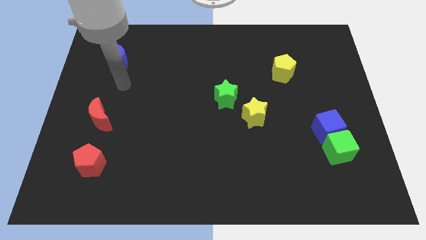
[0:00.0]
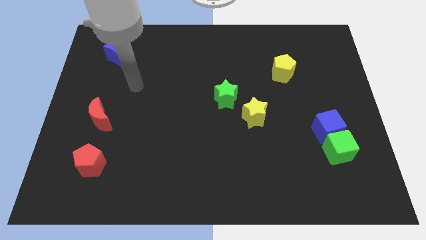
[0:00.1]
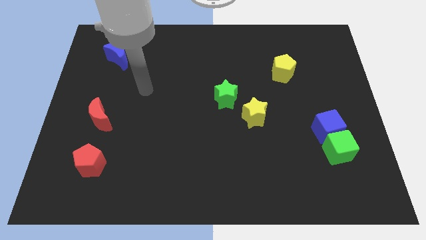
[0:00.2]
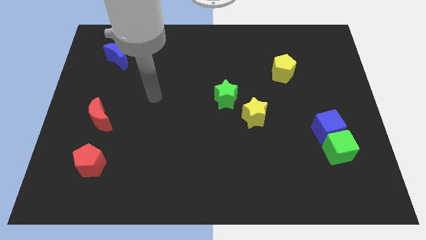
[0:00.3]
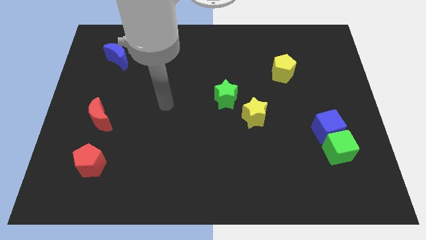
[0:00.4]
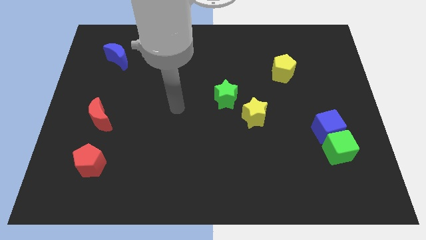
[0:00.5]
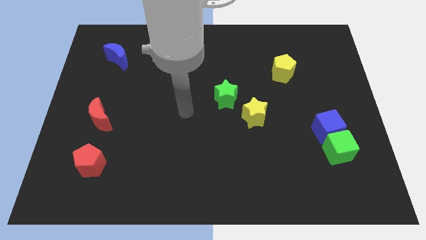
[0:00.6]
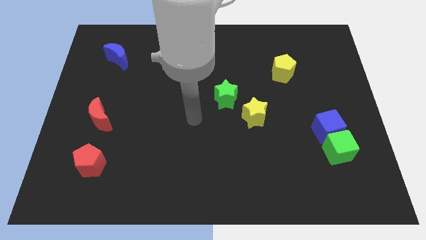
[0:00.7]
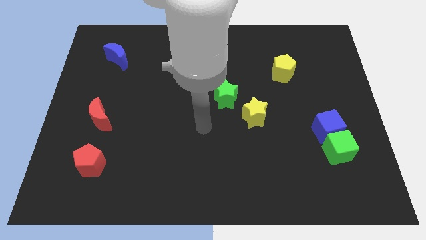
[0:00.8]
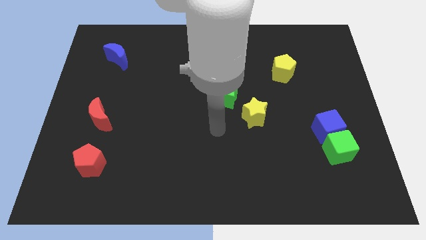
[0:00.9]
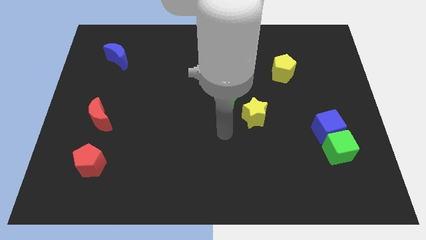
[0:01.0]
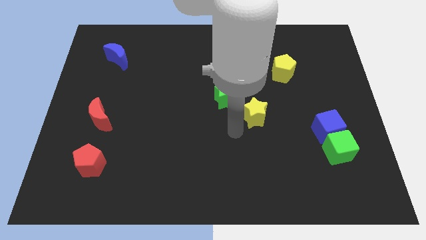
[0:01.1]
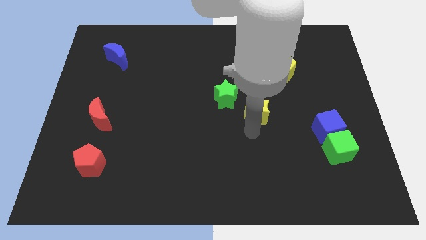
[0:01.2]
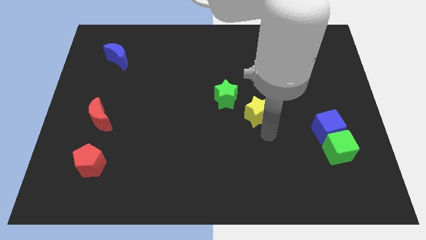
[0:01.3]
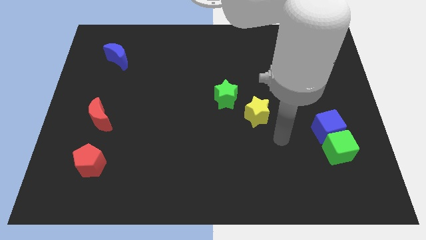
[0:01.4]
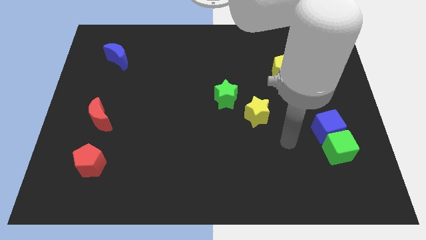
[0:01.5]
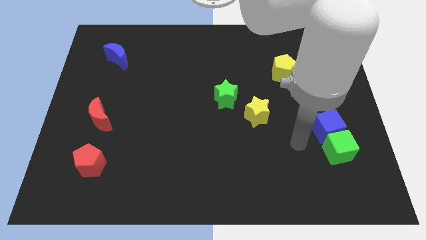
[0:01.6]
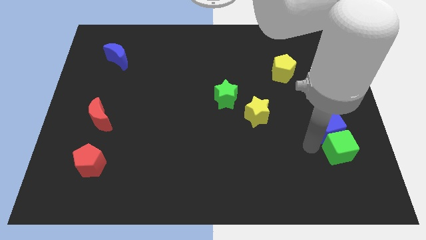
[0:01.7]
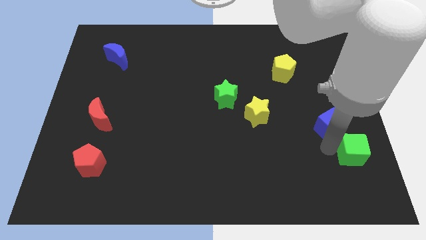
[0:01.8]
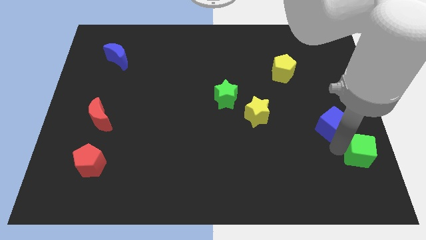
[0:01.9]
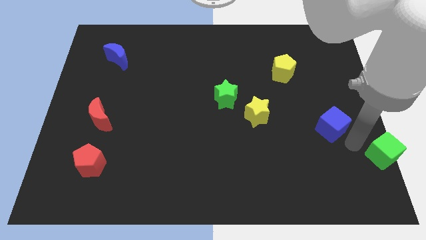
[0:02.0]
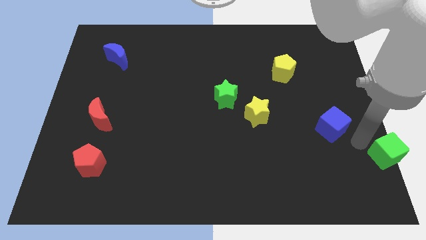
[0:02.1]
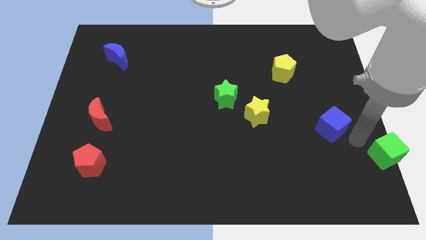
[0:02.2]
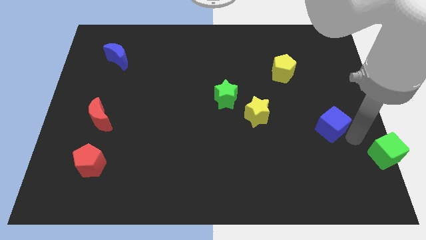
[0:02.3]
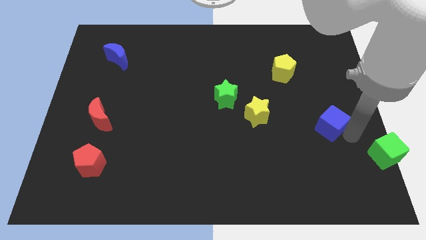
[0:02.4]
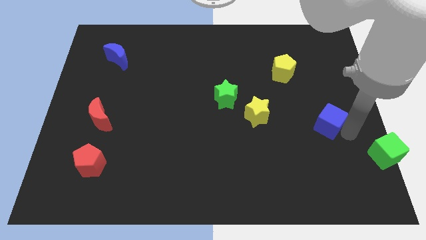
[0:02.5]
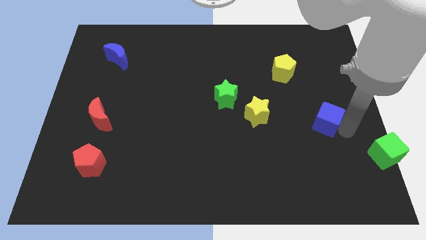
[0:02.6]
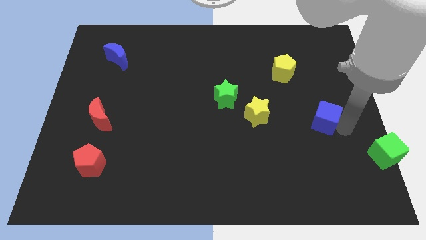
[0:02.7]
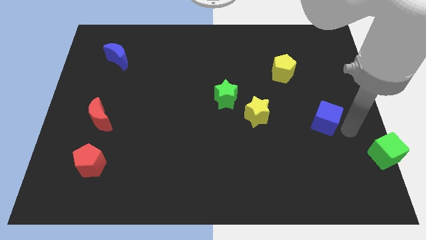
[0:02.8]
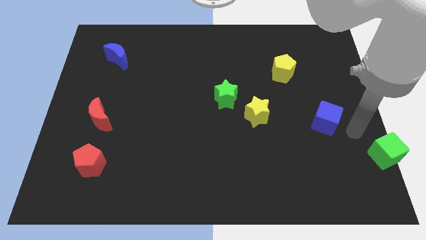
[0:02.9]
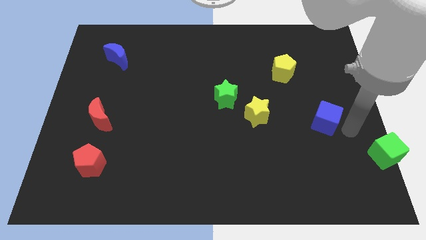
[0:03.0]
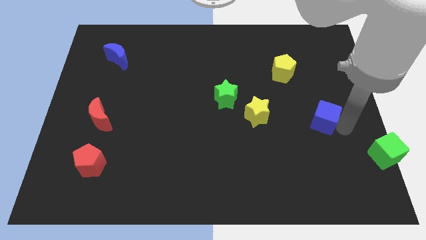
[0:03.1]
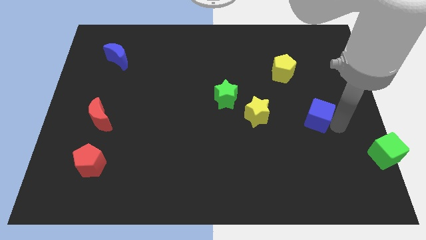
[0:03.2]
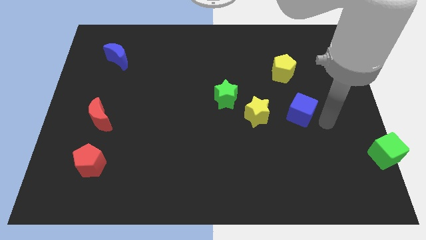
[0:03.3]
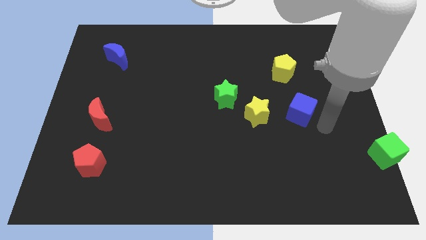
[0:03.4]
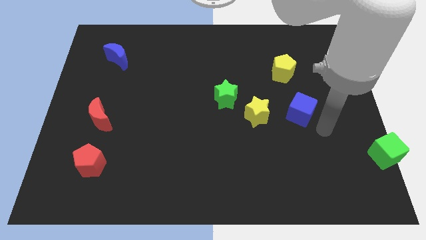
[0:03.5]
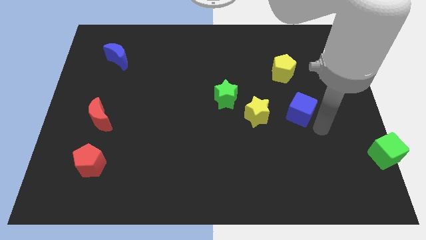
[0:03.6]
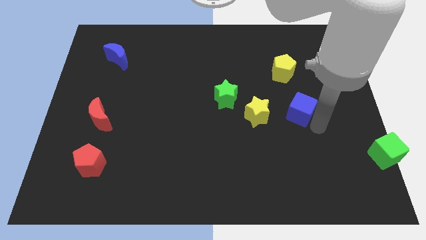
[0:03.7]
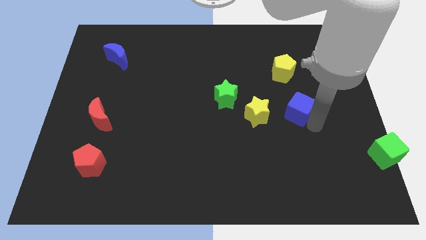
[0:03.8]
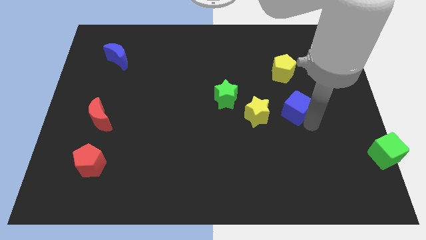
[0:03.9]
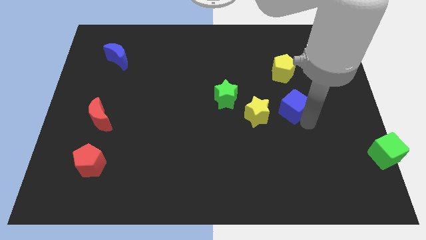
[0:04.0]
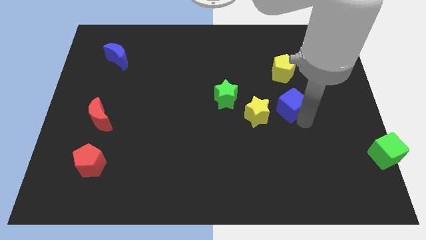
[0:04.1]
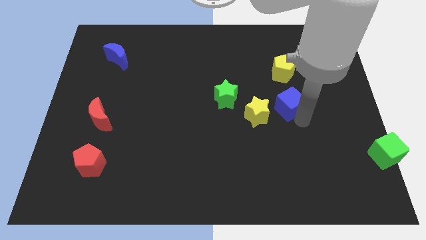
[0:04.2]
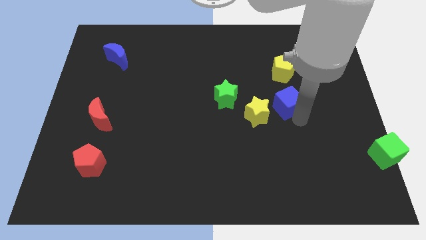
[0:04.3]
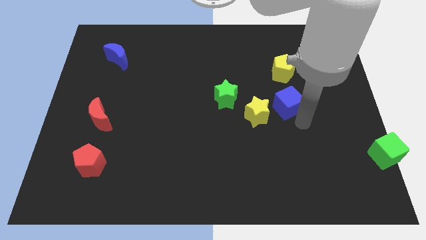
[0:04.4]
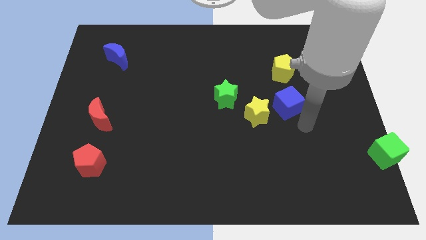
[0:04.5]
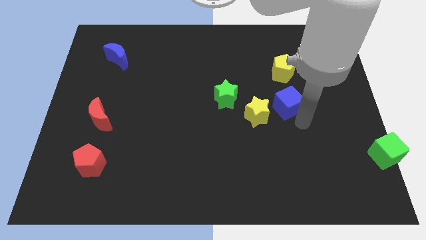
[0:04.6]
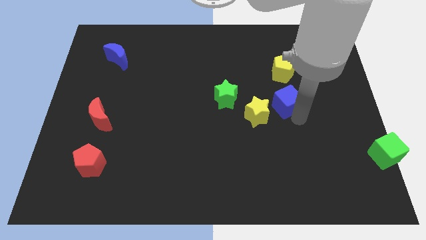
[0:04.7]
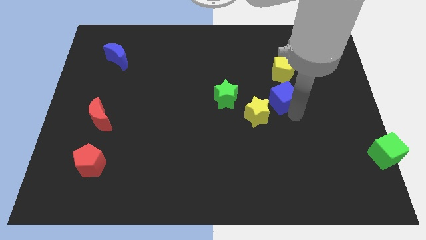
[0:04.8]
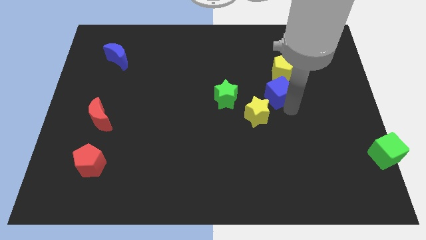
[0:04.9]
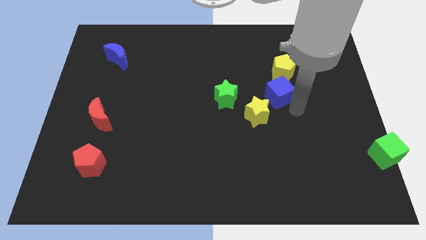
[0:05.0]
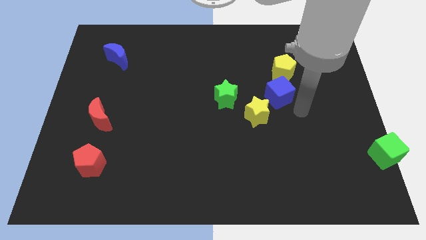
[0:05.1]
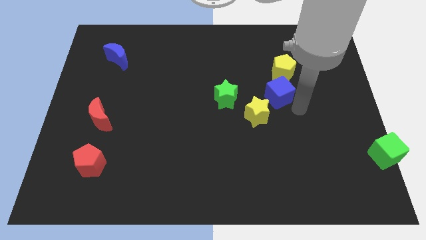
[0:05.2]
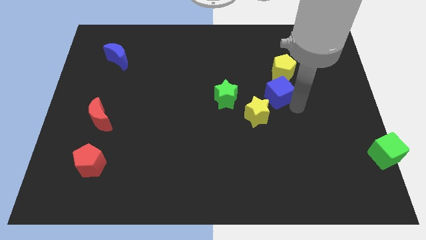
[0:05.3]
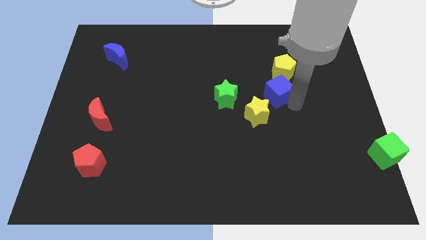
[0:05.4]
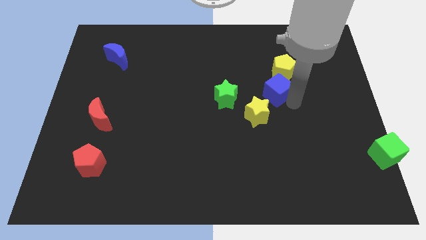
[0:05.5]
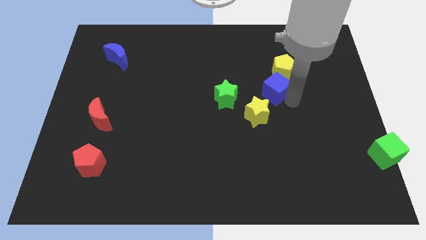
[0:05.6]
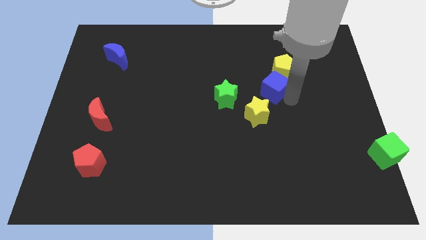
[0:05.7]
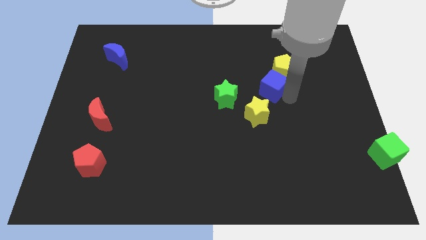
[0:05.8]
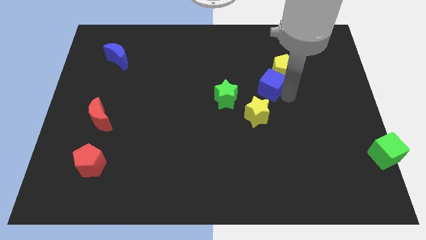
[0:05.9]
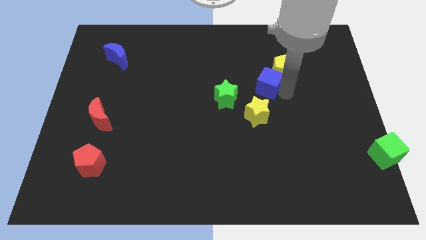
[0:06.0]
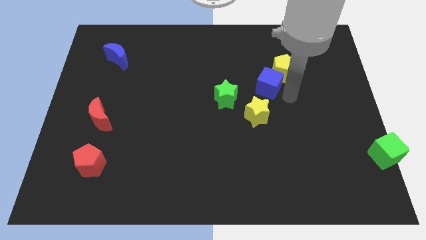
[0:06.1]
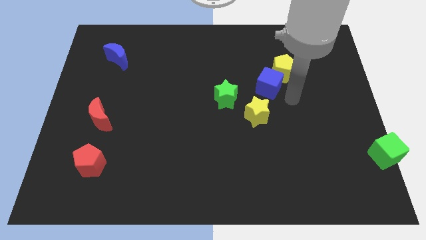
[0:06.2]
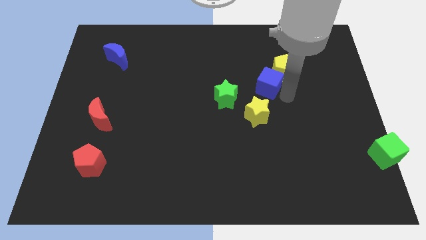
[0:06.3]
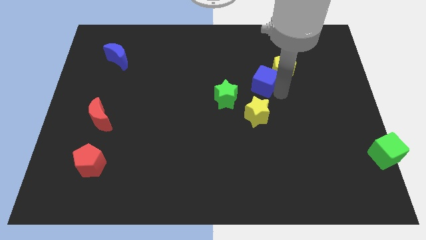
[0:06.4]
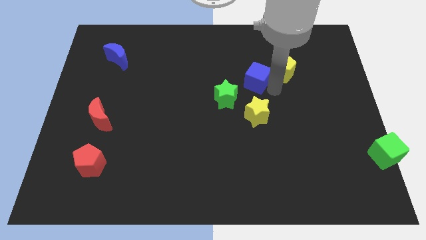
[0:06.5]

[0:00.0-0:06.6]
slide the blue cube up and then to the left

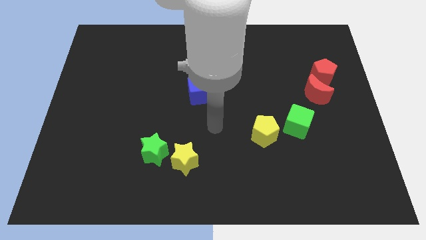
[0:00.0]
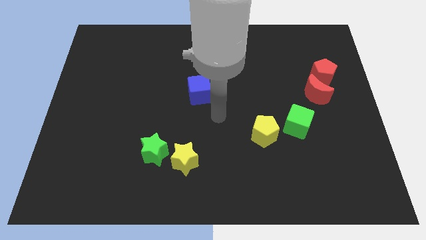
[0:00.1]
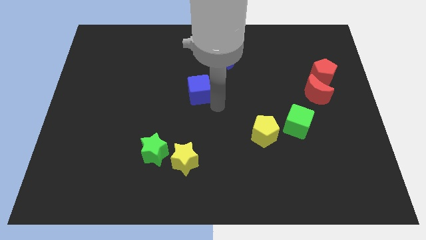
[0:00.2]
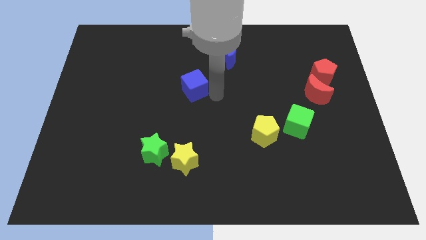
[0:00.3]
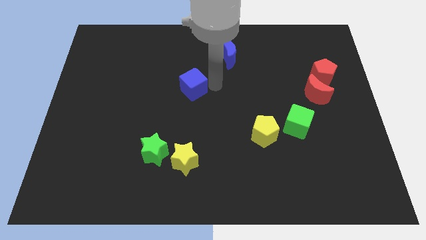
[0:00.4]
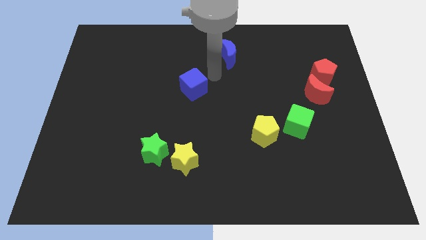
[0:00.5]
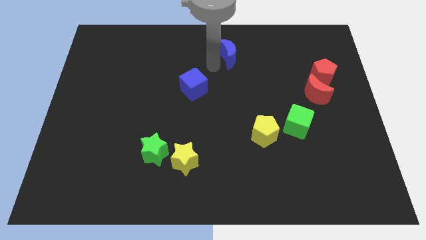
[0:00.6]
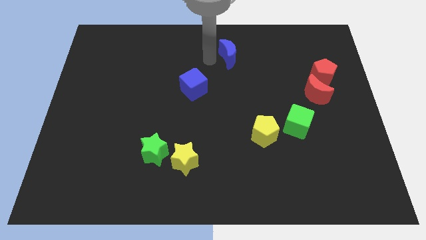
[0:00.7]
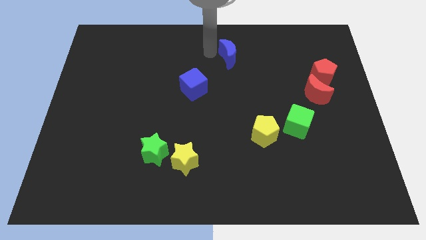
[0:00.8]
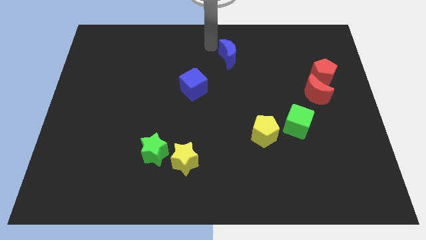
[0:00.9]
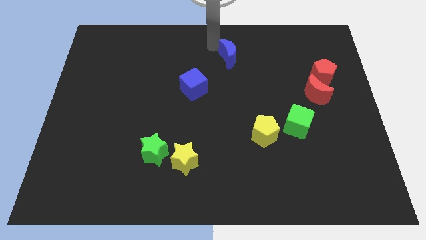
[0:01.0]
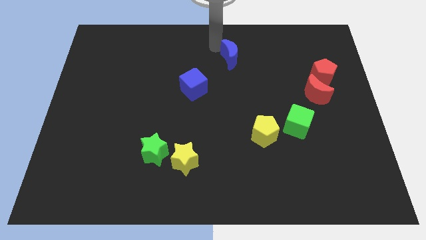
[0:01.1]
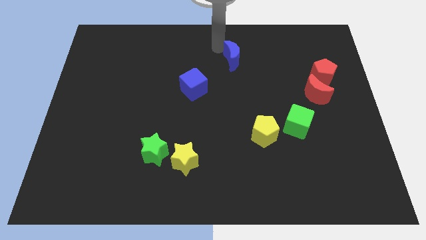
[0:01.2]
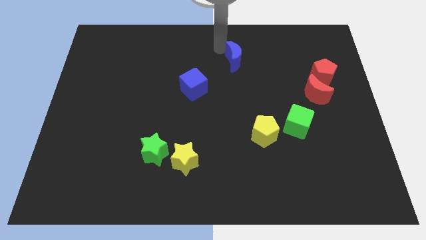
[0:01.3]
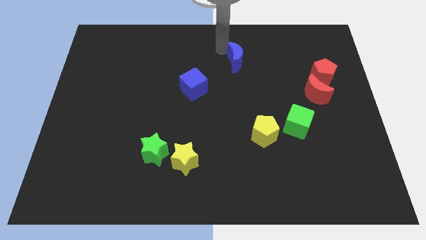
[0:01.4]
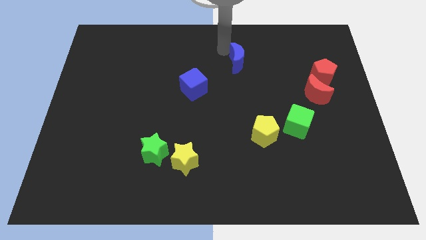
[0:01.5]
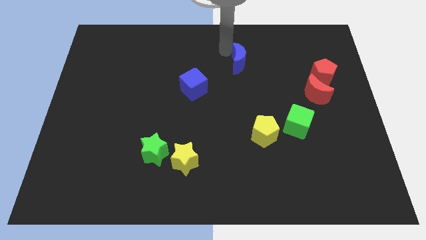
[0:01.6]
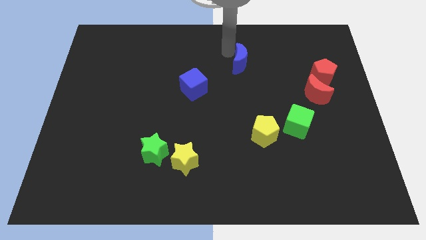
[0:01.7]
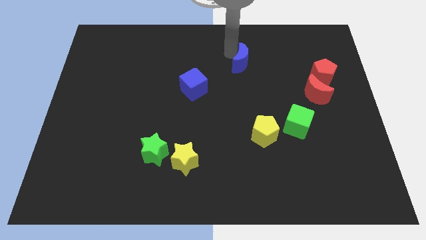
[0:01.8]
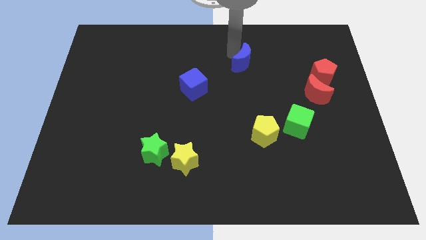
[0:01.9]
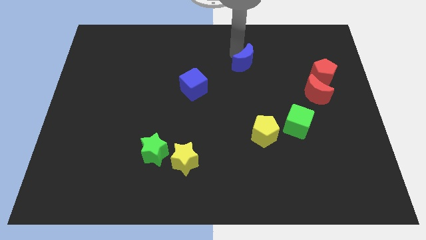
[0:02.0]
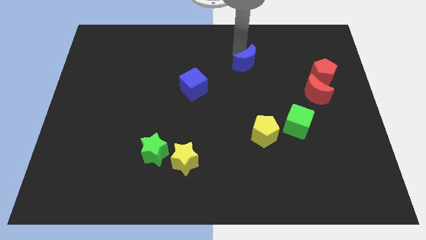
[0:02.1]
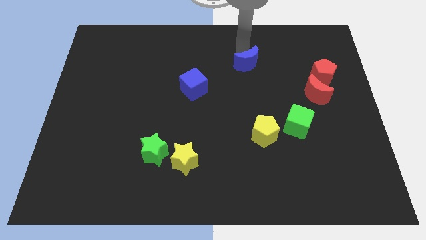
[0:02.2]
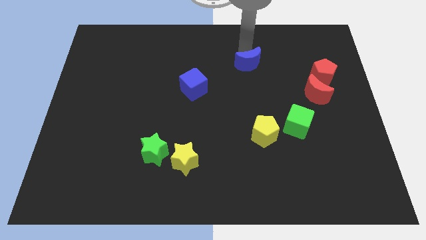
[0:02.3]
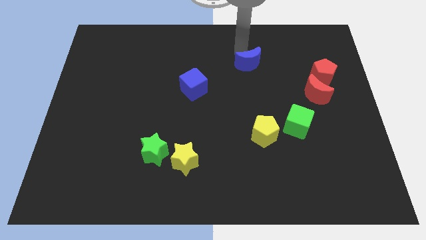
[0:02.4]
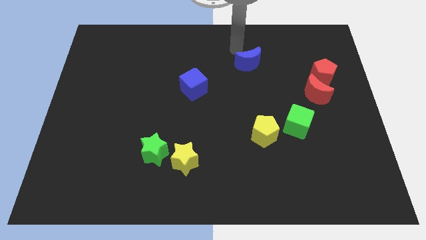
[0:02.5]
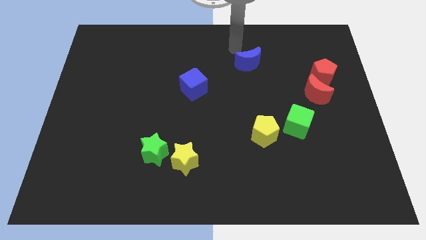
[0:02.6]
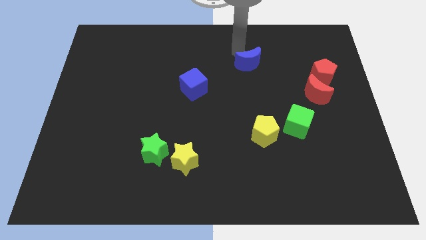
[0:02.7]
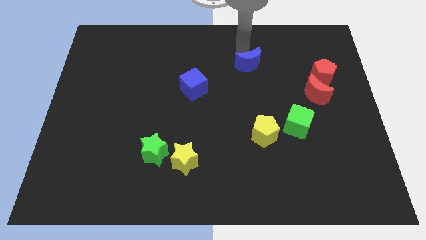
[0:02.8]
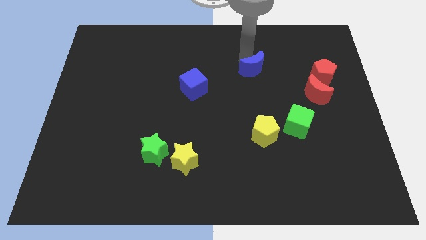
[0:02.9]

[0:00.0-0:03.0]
slightly push the blue moon downwards and to the right
